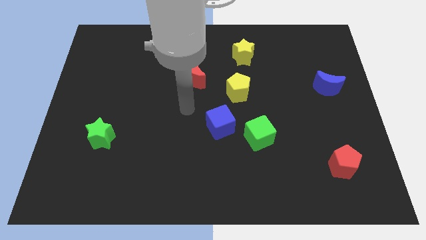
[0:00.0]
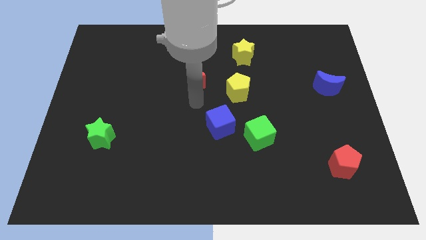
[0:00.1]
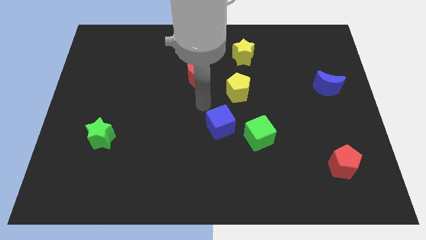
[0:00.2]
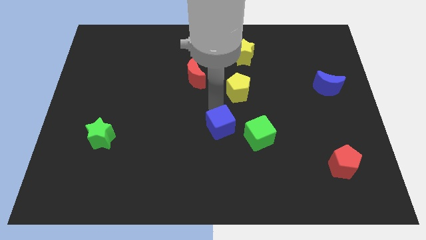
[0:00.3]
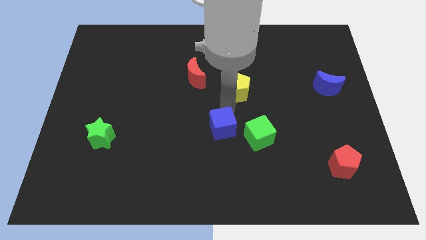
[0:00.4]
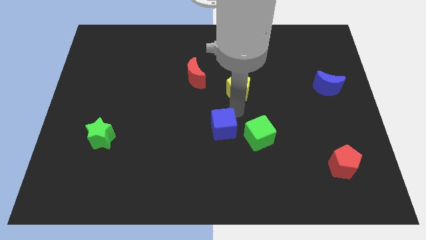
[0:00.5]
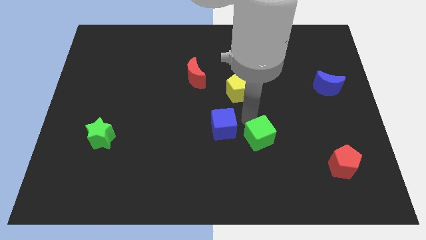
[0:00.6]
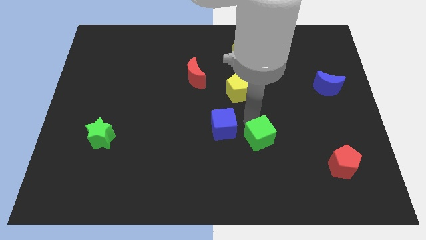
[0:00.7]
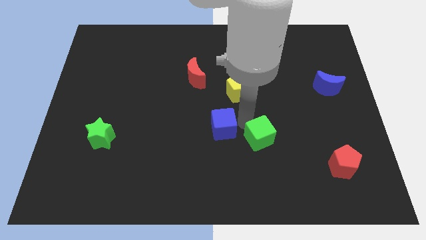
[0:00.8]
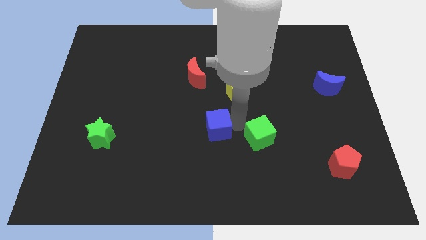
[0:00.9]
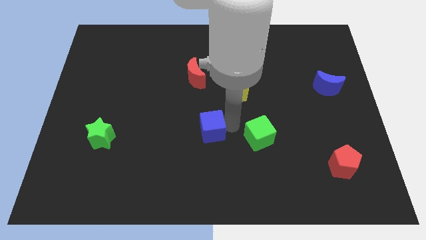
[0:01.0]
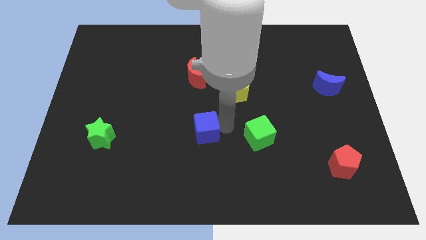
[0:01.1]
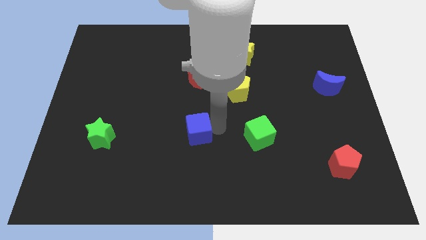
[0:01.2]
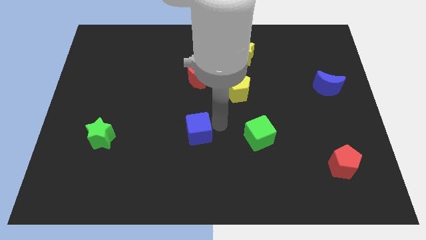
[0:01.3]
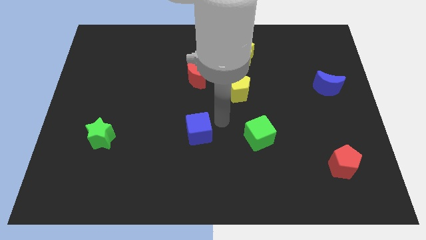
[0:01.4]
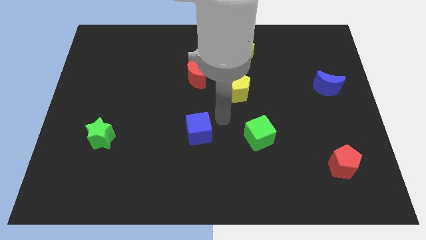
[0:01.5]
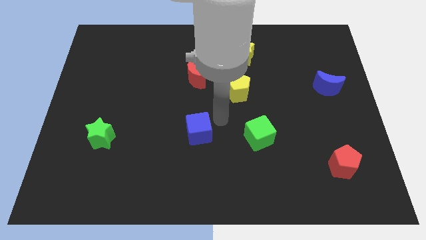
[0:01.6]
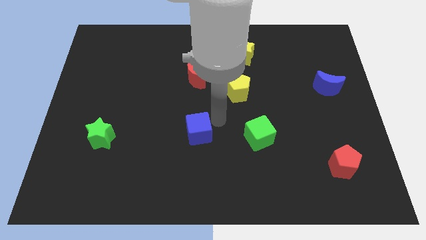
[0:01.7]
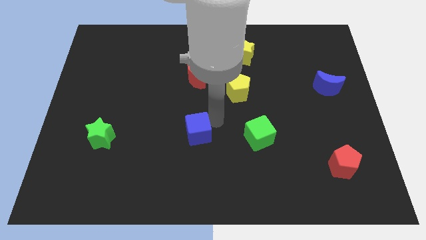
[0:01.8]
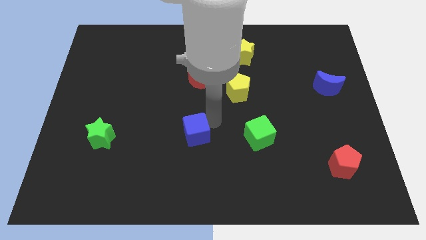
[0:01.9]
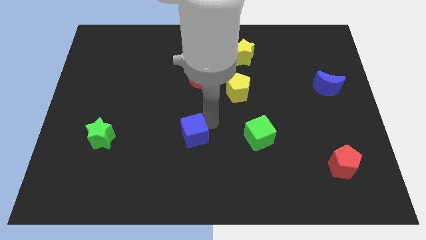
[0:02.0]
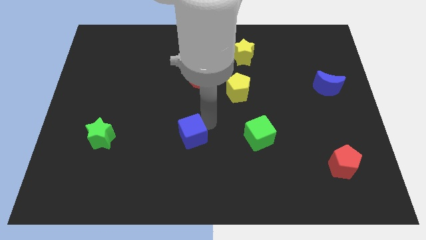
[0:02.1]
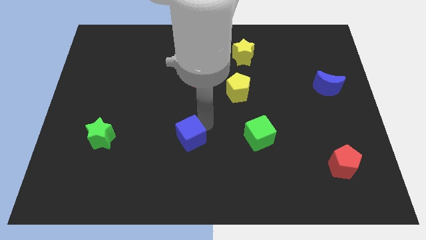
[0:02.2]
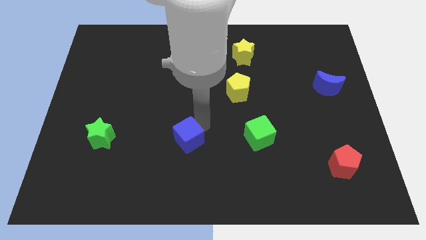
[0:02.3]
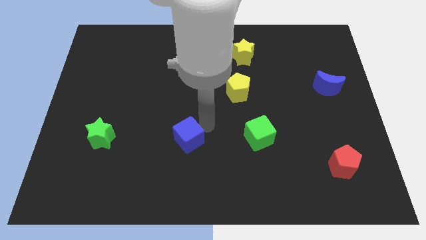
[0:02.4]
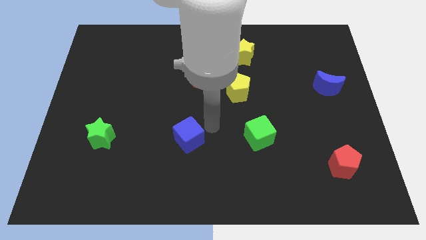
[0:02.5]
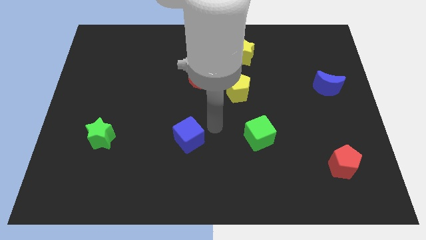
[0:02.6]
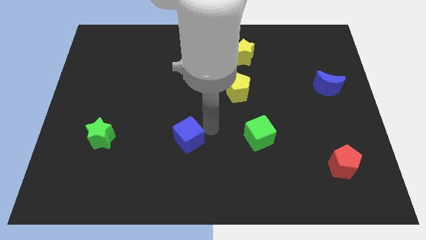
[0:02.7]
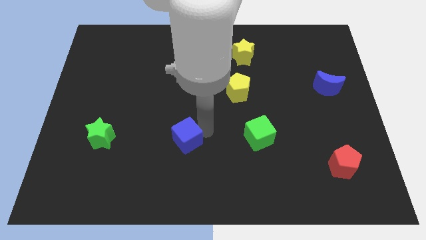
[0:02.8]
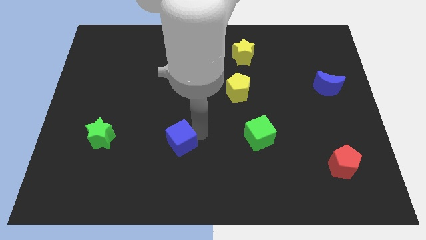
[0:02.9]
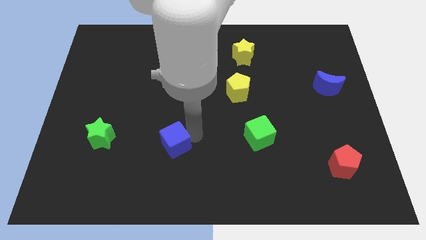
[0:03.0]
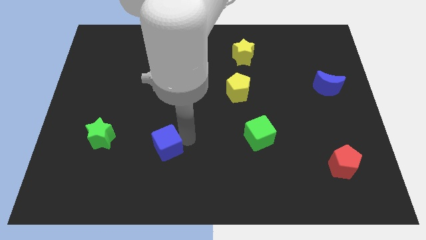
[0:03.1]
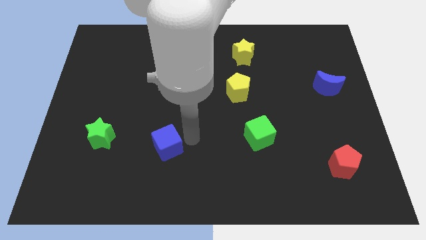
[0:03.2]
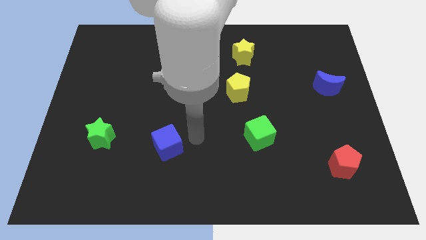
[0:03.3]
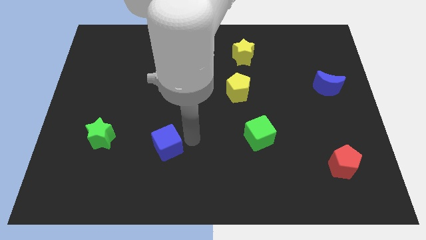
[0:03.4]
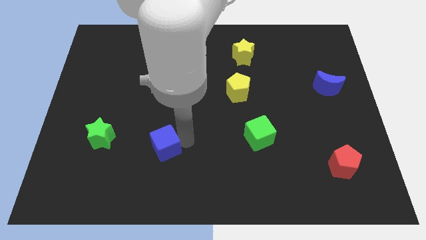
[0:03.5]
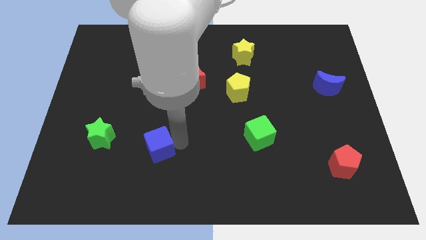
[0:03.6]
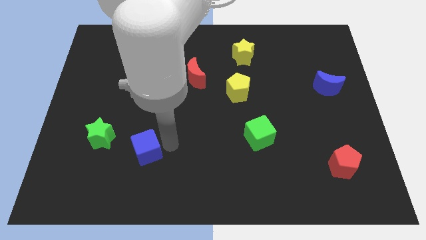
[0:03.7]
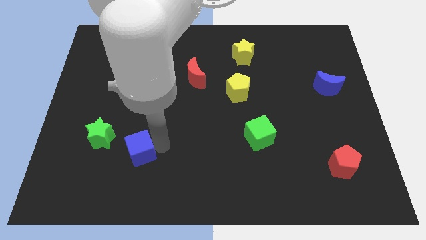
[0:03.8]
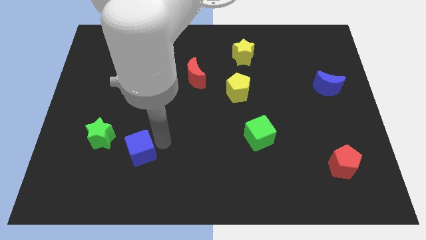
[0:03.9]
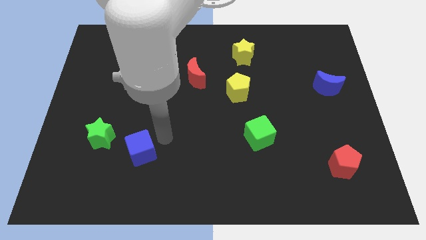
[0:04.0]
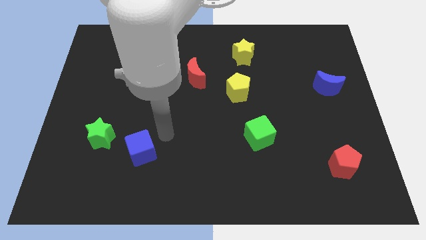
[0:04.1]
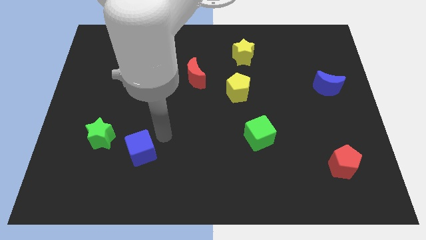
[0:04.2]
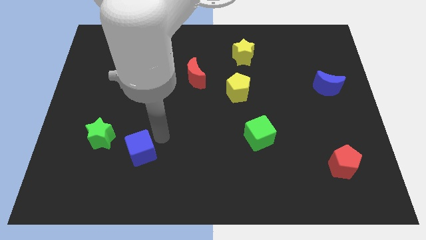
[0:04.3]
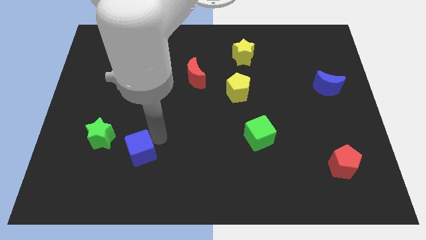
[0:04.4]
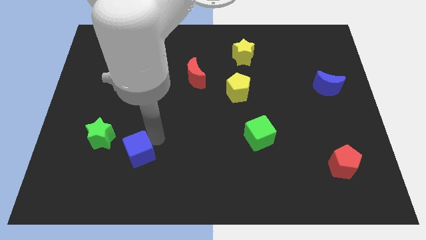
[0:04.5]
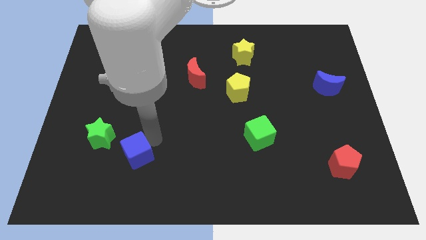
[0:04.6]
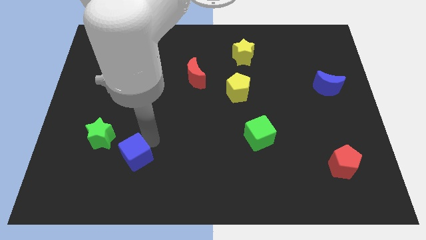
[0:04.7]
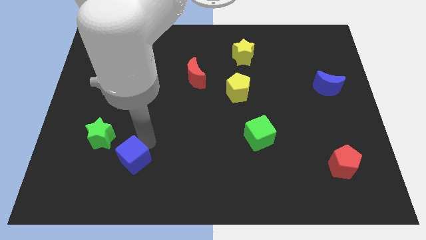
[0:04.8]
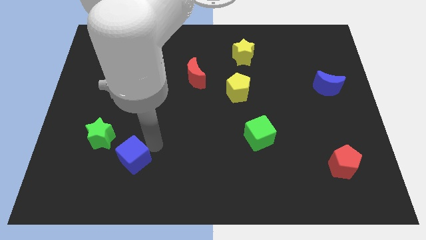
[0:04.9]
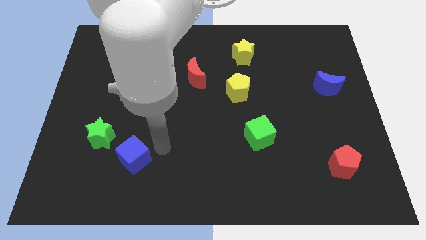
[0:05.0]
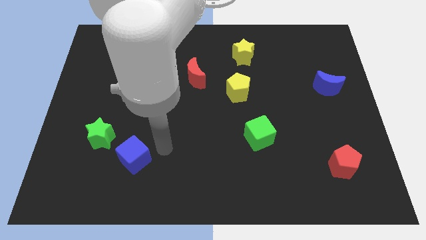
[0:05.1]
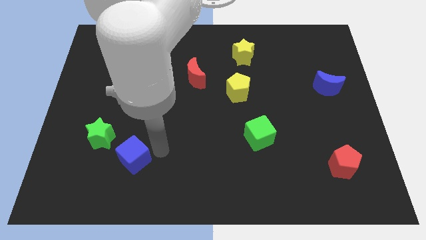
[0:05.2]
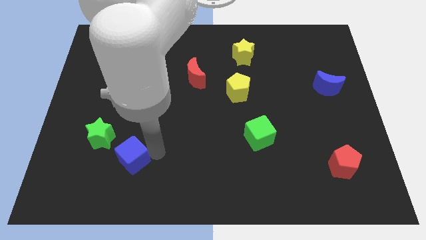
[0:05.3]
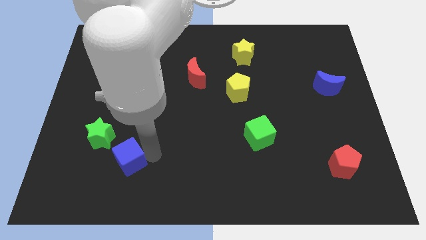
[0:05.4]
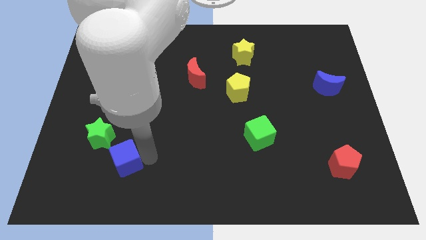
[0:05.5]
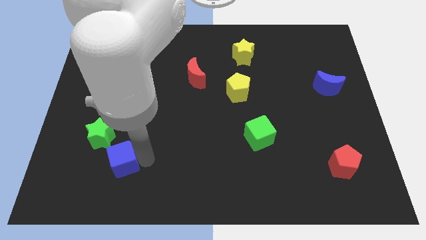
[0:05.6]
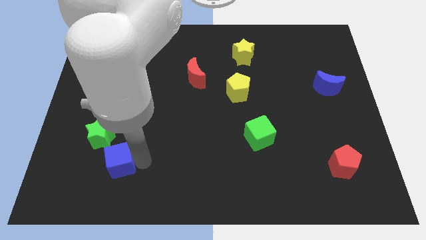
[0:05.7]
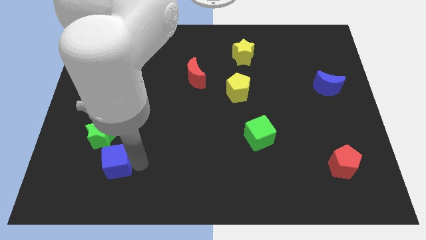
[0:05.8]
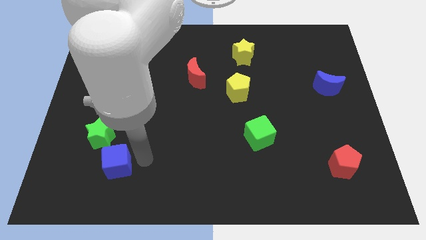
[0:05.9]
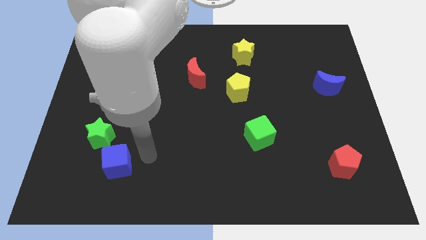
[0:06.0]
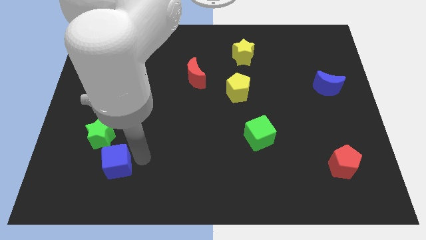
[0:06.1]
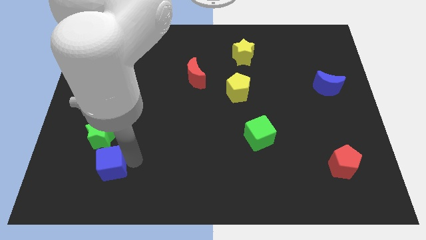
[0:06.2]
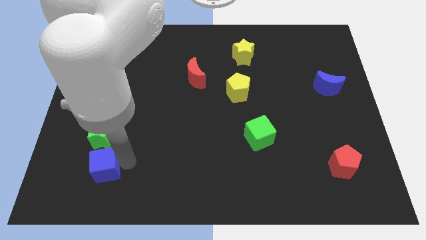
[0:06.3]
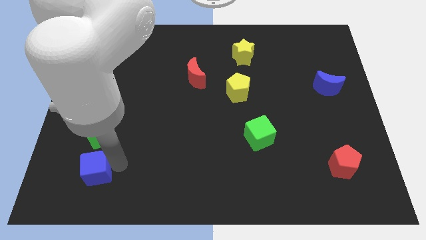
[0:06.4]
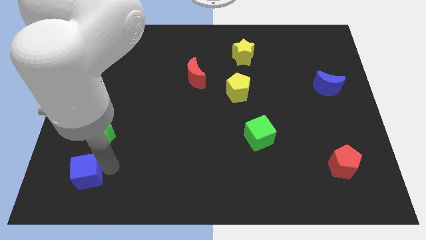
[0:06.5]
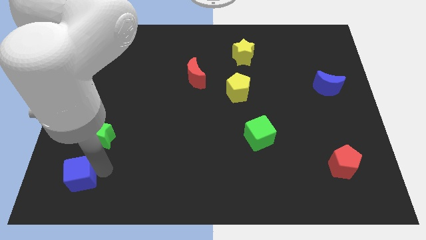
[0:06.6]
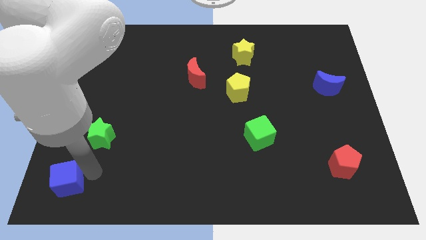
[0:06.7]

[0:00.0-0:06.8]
move the blue cube to the bottom left of the board
